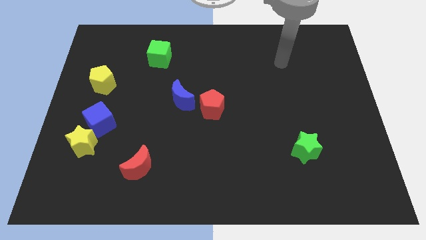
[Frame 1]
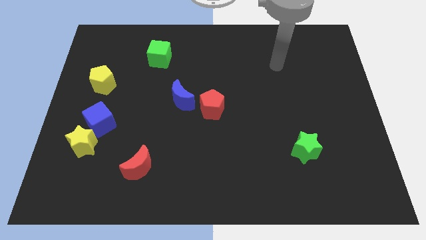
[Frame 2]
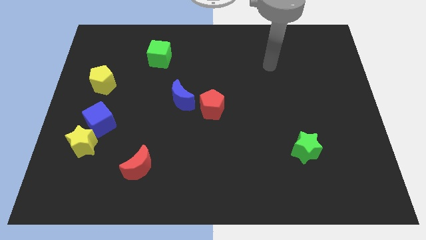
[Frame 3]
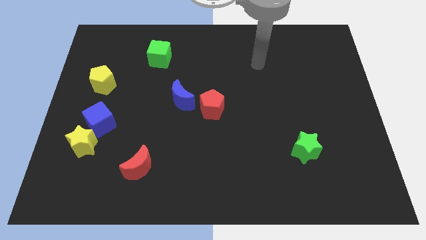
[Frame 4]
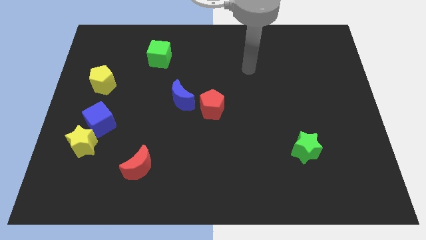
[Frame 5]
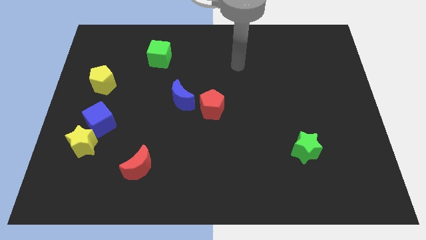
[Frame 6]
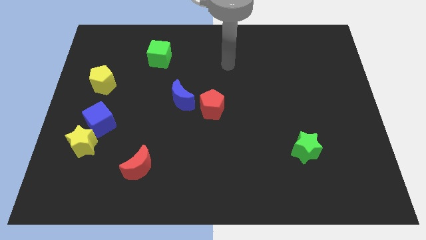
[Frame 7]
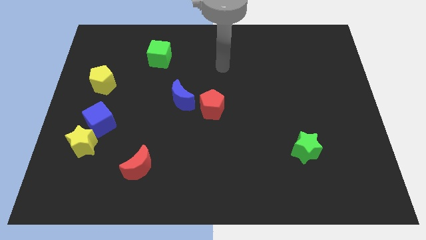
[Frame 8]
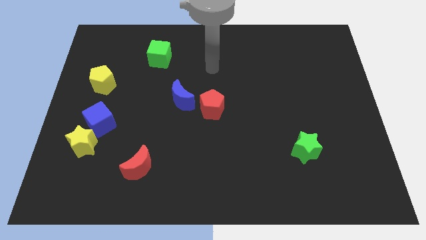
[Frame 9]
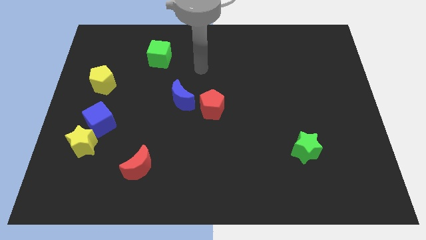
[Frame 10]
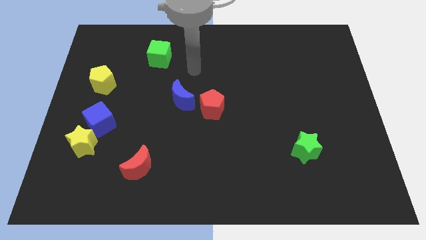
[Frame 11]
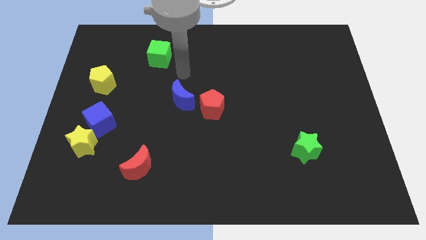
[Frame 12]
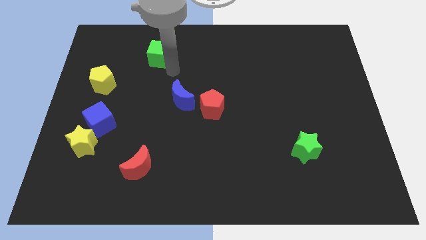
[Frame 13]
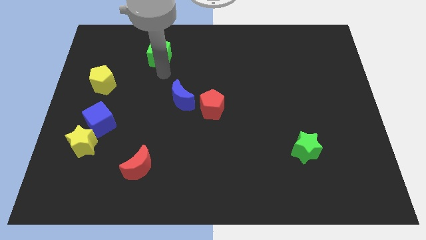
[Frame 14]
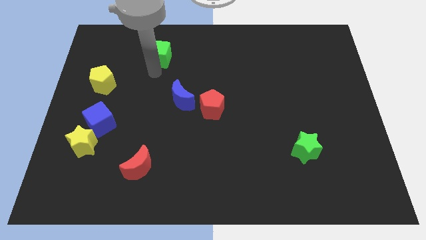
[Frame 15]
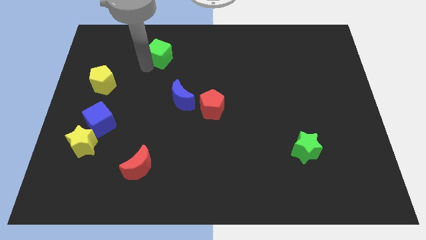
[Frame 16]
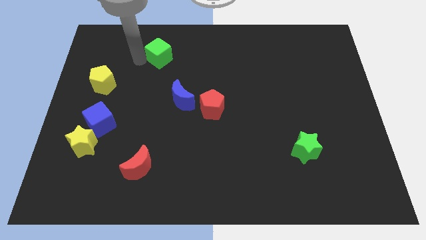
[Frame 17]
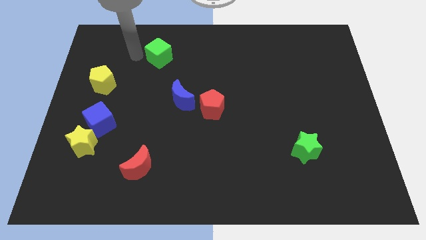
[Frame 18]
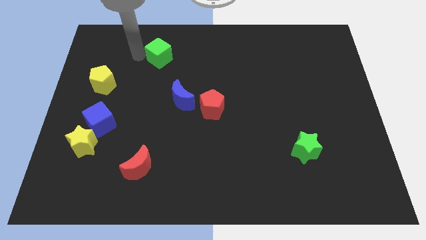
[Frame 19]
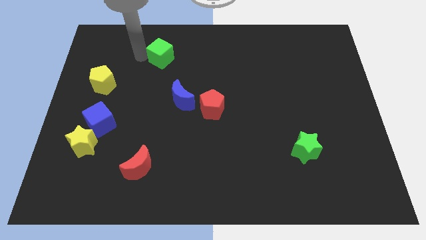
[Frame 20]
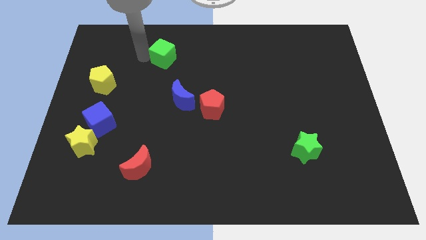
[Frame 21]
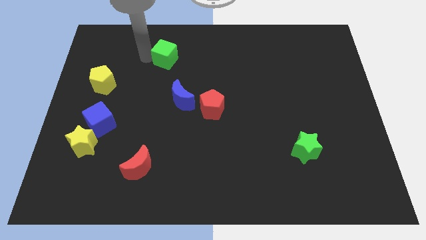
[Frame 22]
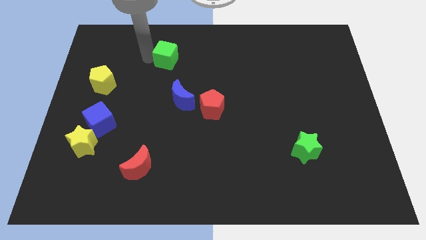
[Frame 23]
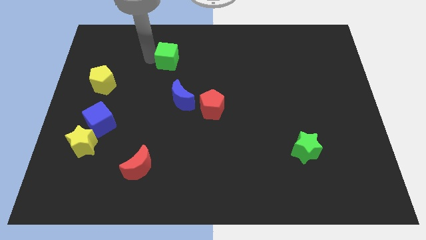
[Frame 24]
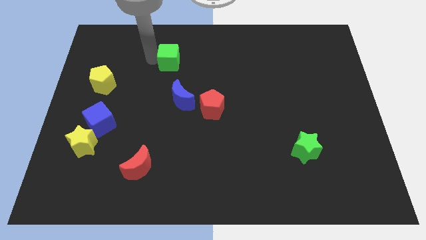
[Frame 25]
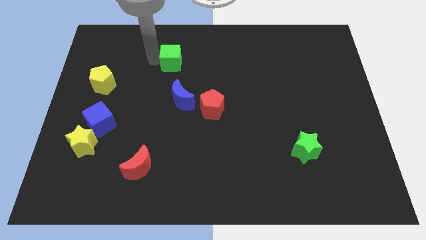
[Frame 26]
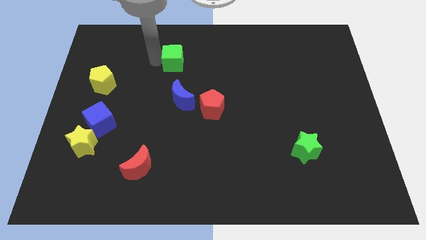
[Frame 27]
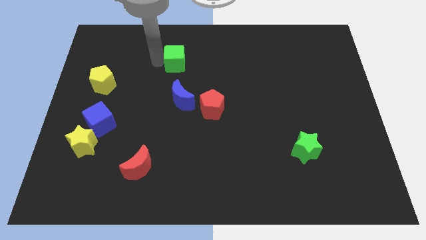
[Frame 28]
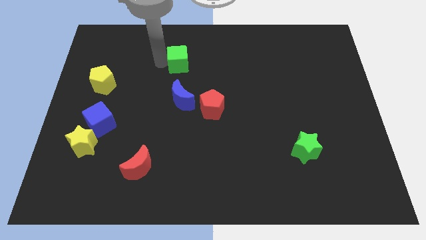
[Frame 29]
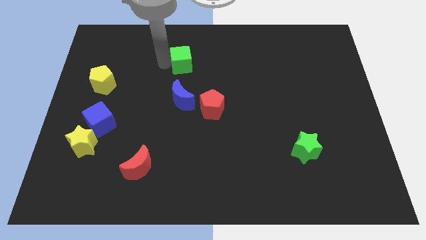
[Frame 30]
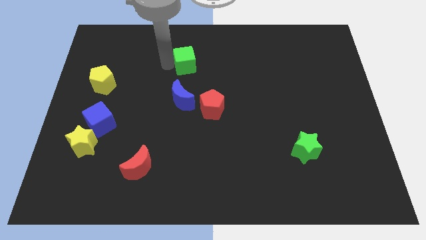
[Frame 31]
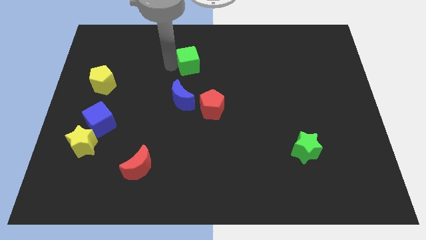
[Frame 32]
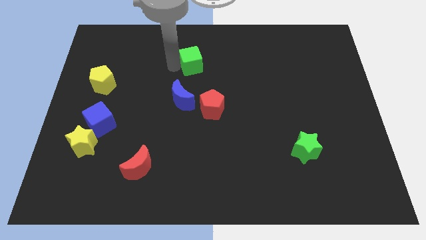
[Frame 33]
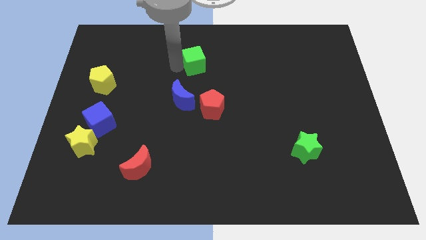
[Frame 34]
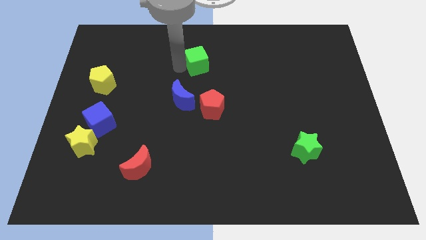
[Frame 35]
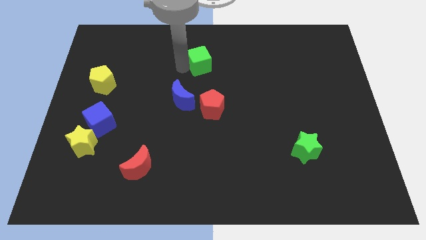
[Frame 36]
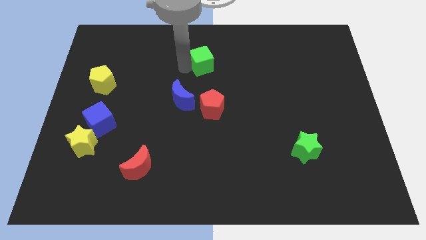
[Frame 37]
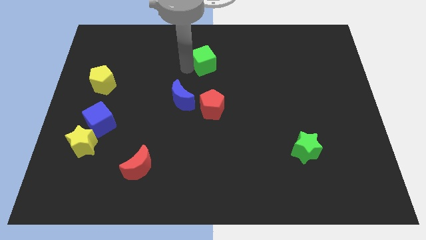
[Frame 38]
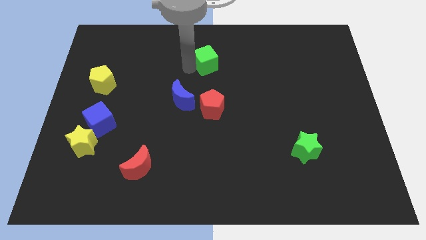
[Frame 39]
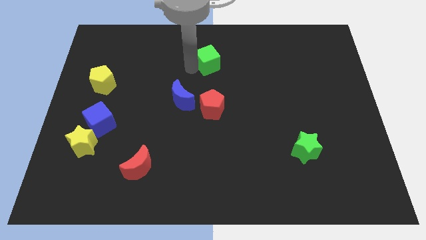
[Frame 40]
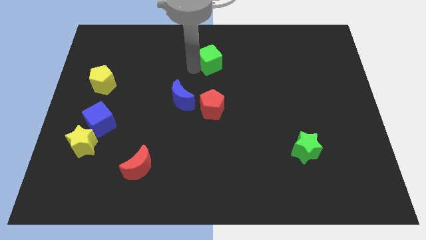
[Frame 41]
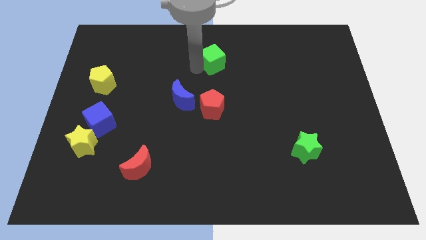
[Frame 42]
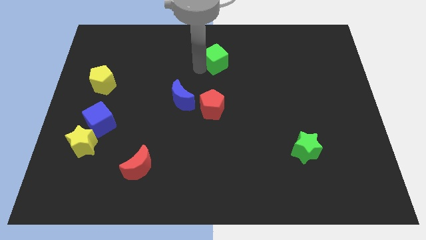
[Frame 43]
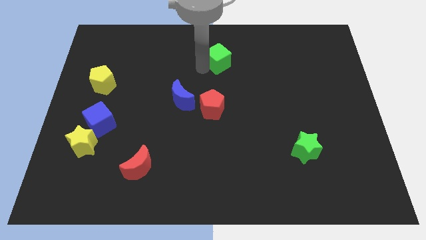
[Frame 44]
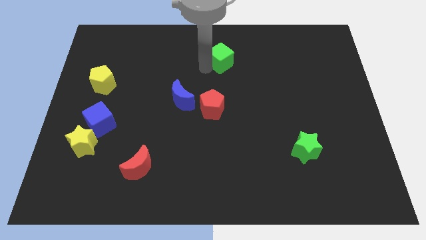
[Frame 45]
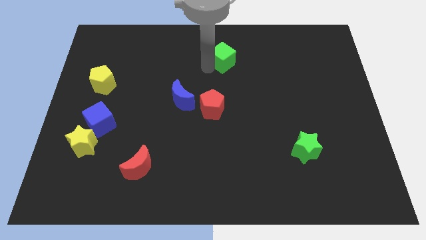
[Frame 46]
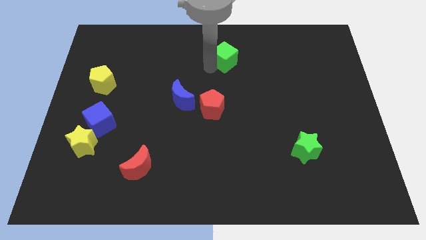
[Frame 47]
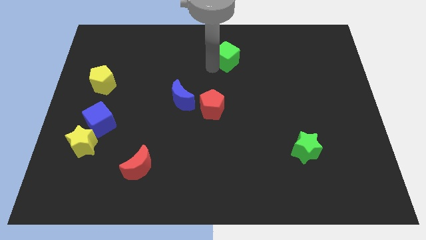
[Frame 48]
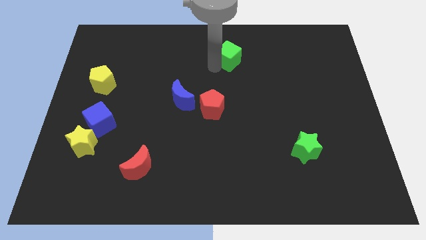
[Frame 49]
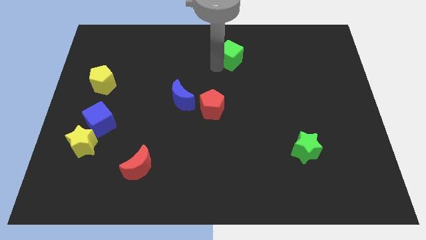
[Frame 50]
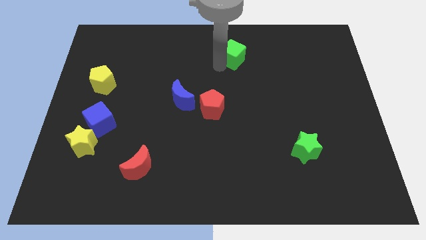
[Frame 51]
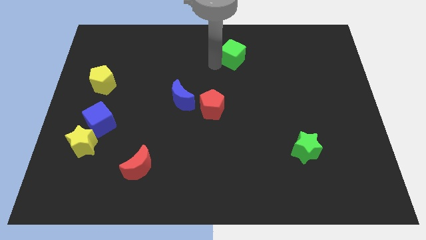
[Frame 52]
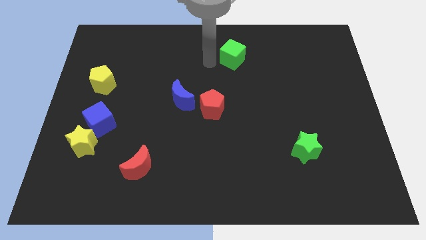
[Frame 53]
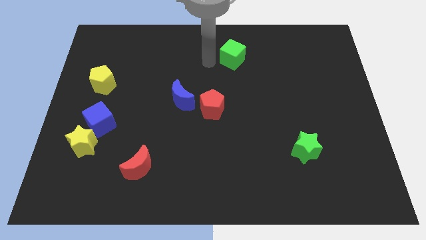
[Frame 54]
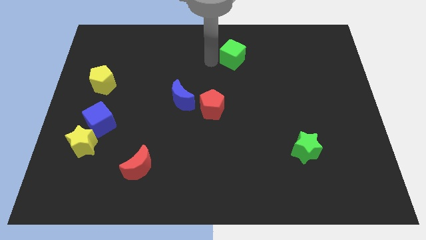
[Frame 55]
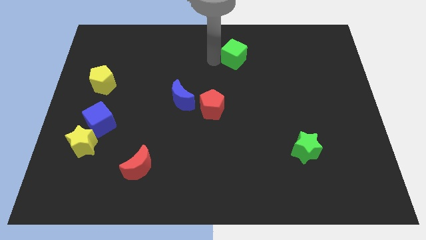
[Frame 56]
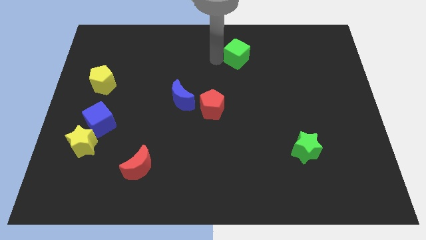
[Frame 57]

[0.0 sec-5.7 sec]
move the green cube to the right

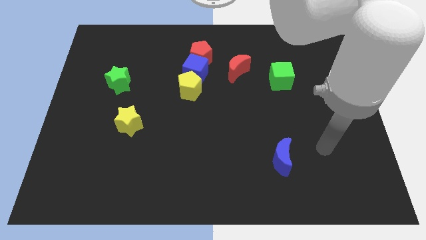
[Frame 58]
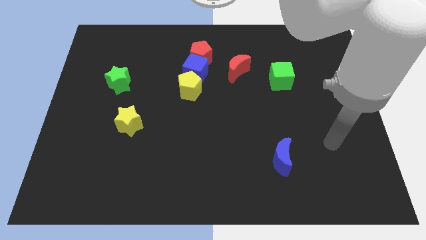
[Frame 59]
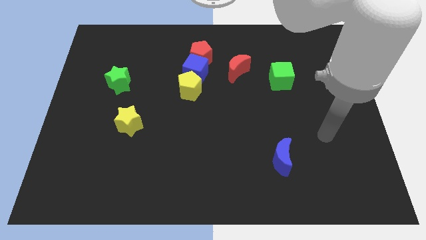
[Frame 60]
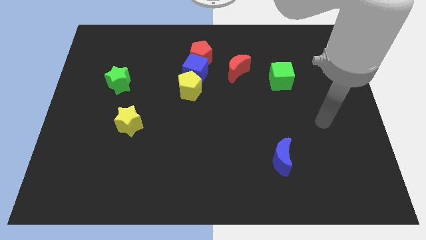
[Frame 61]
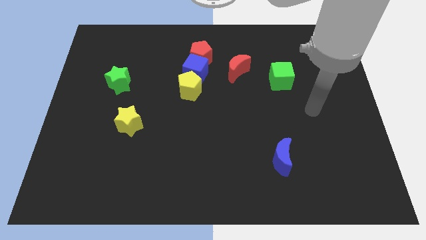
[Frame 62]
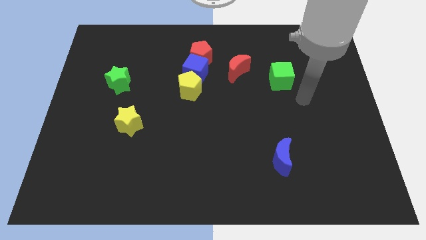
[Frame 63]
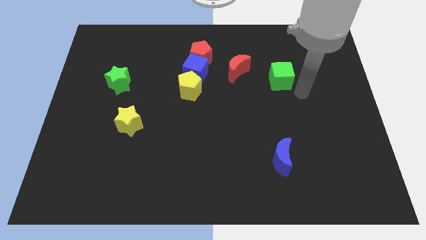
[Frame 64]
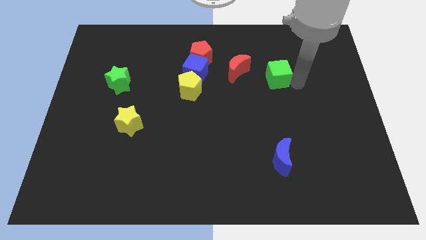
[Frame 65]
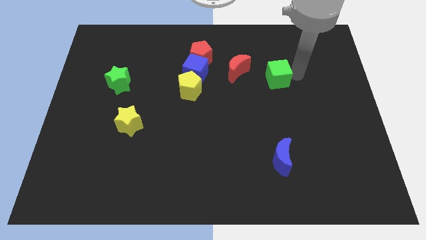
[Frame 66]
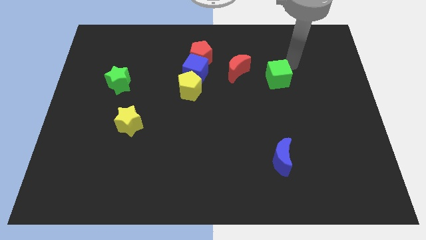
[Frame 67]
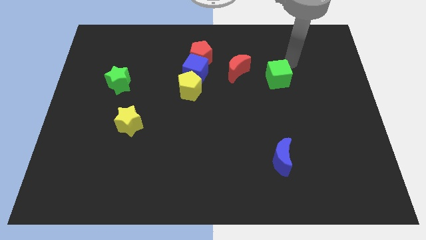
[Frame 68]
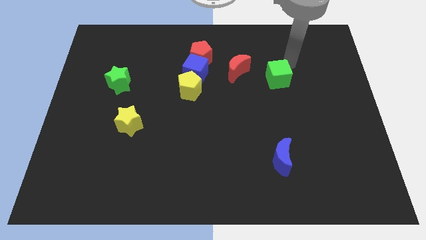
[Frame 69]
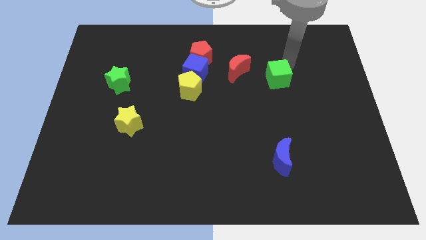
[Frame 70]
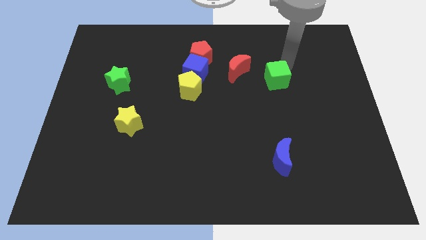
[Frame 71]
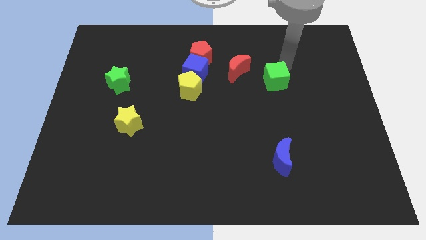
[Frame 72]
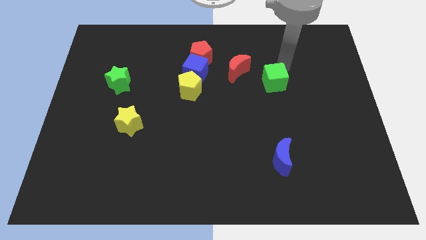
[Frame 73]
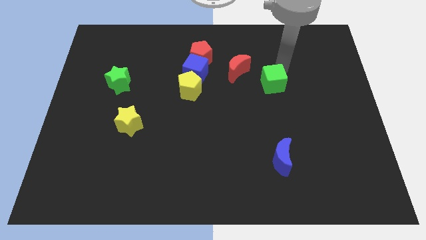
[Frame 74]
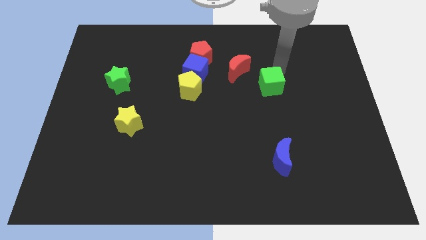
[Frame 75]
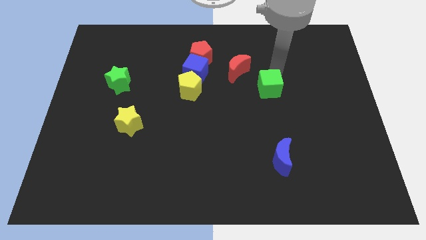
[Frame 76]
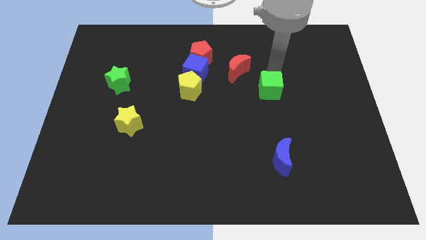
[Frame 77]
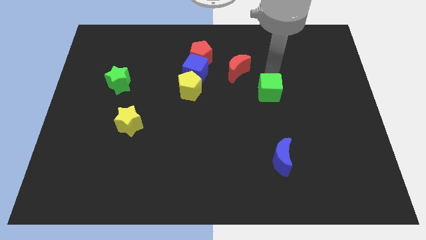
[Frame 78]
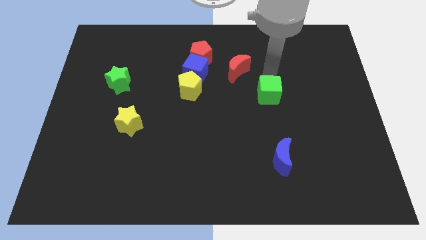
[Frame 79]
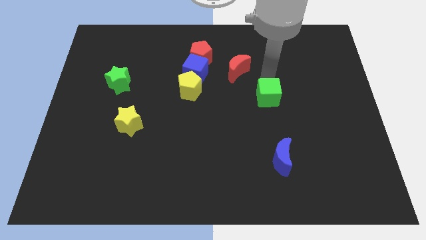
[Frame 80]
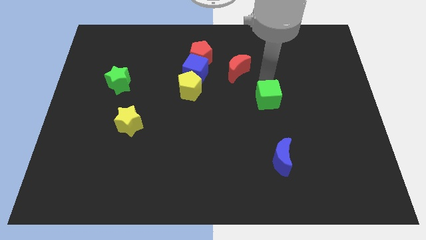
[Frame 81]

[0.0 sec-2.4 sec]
push the green cube a bit down and then left

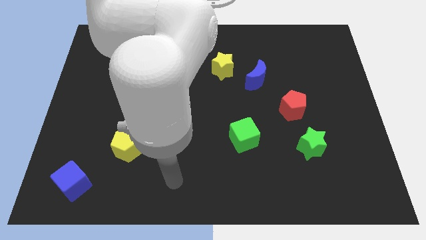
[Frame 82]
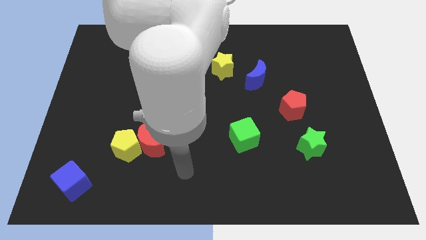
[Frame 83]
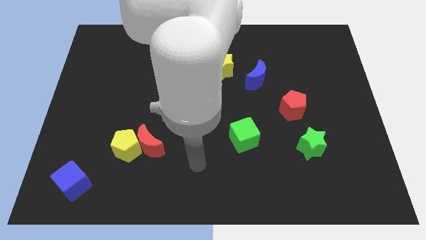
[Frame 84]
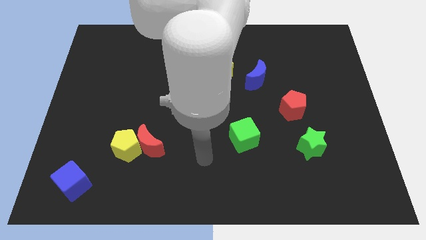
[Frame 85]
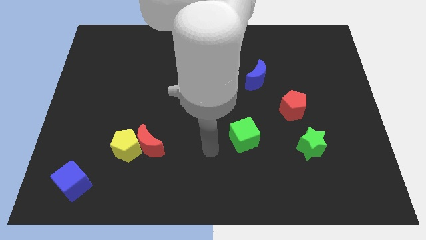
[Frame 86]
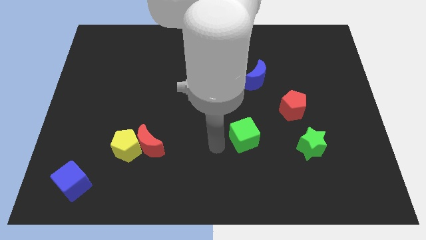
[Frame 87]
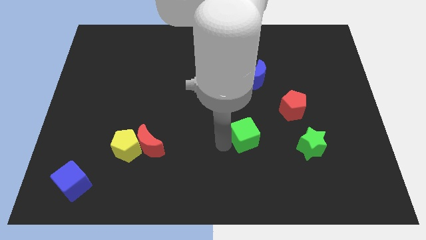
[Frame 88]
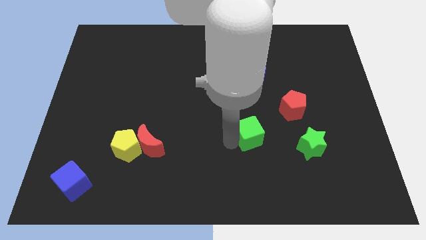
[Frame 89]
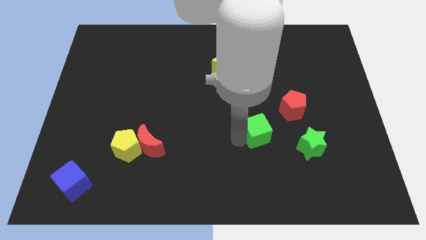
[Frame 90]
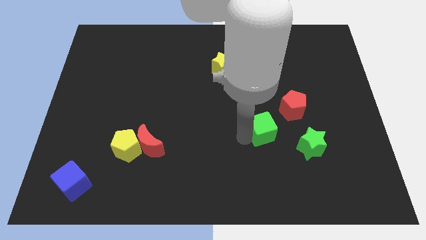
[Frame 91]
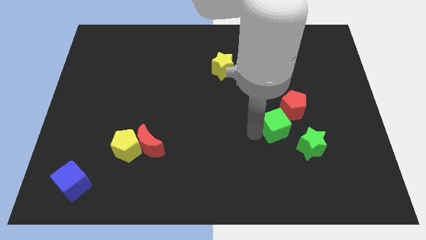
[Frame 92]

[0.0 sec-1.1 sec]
move the green cube slightly right
